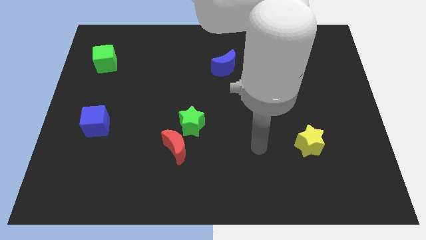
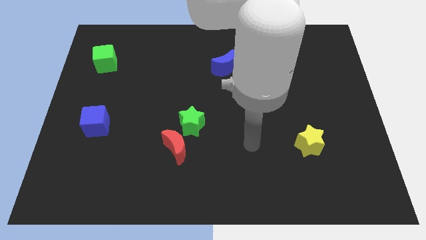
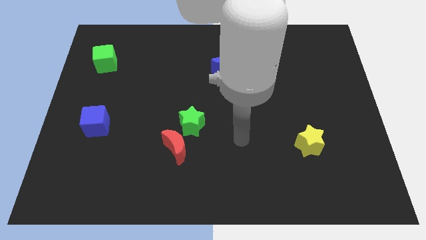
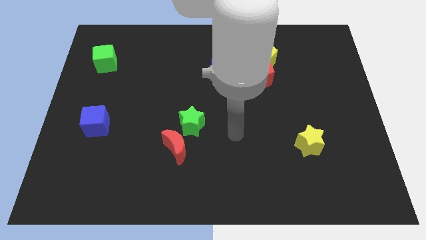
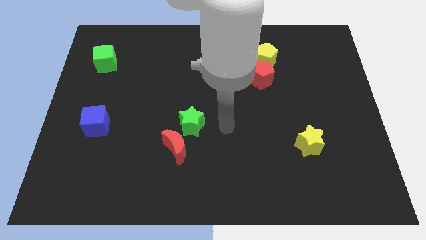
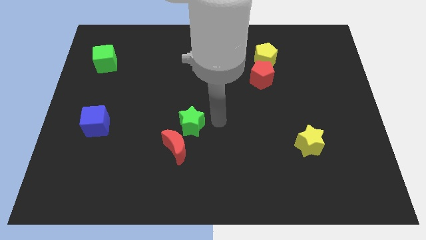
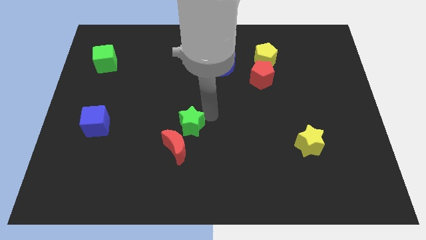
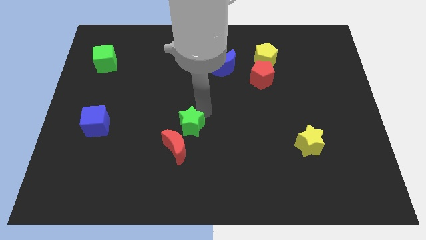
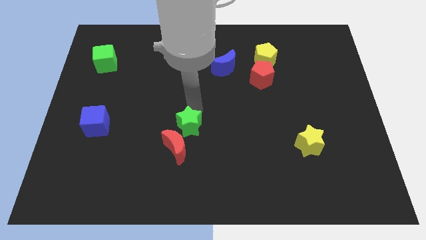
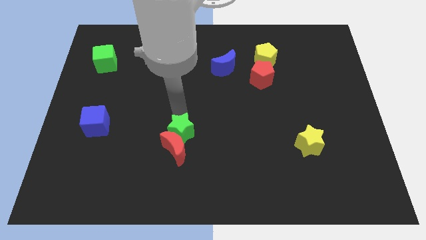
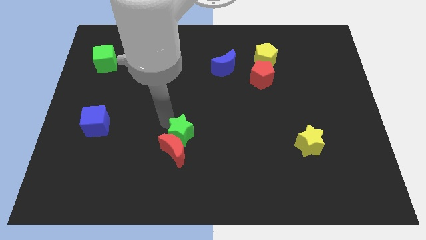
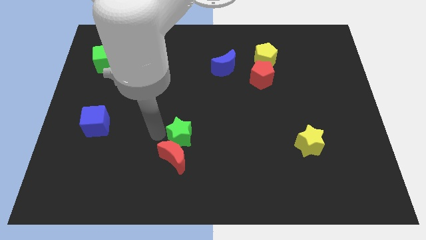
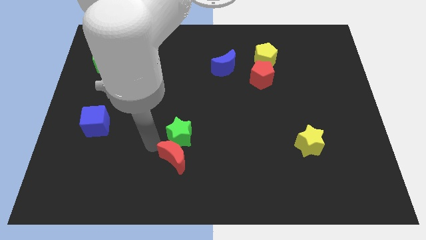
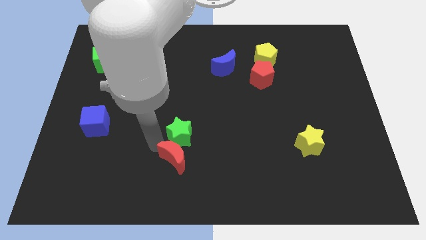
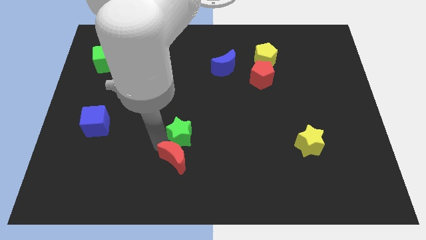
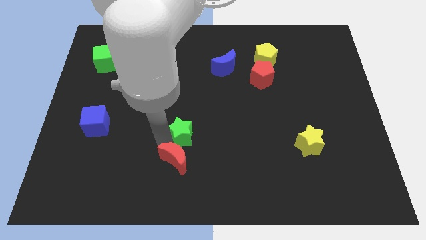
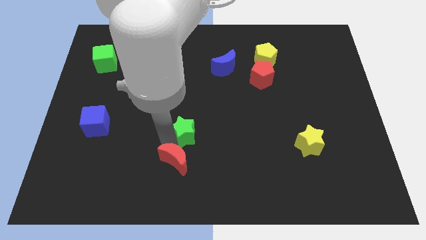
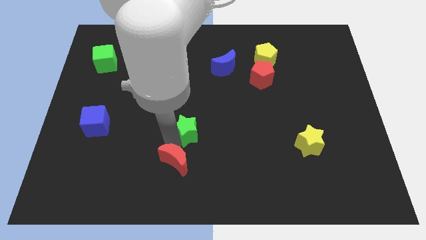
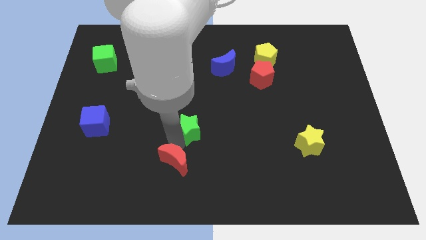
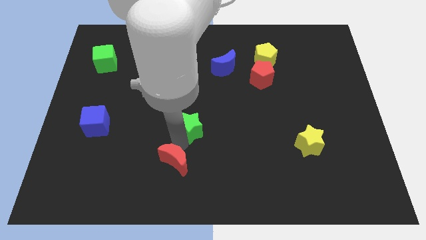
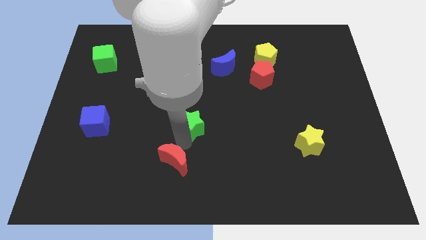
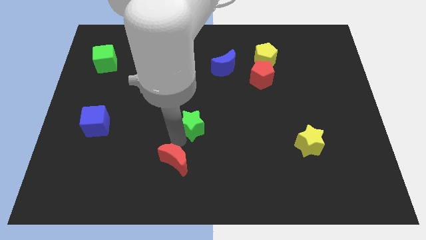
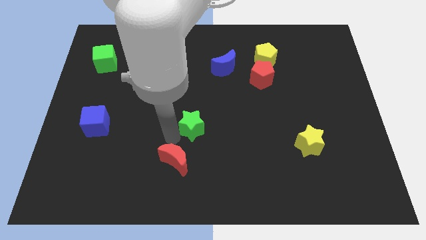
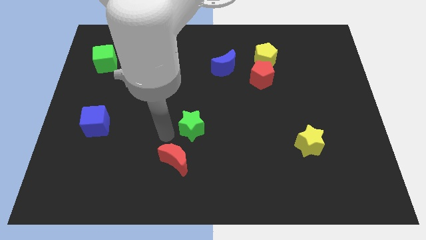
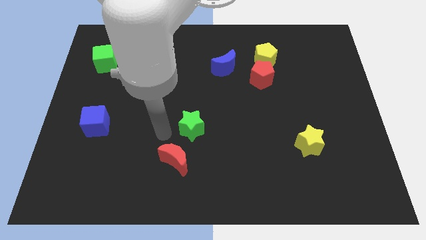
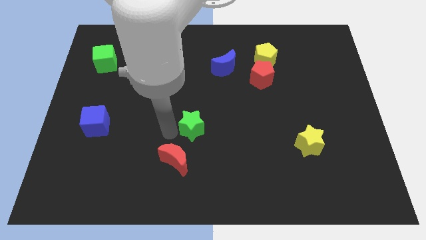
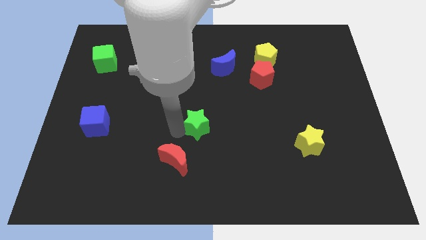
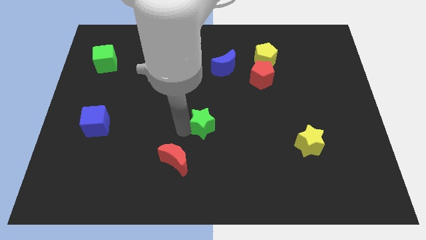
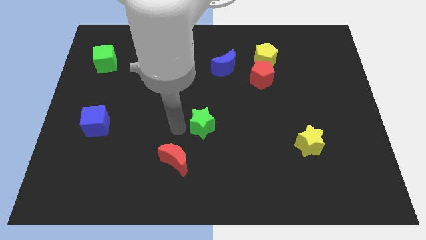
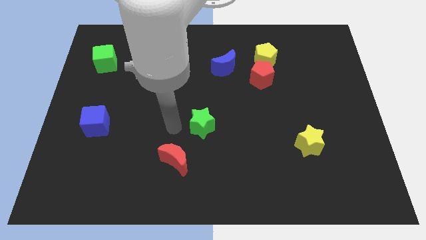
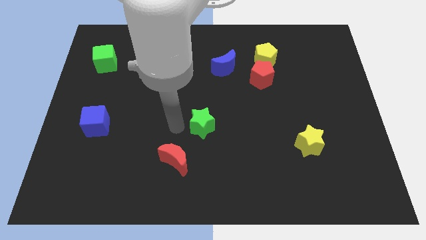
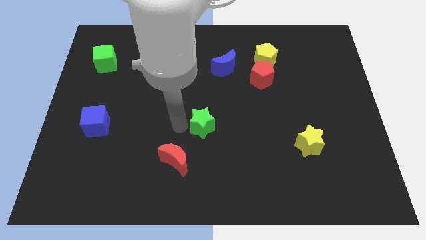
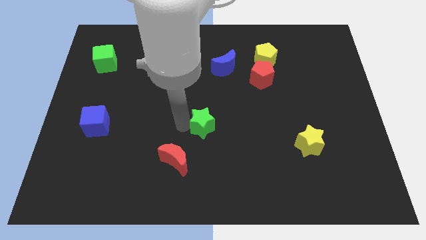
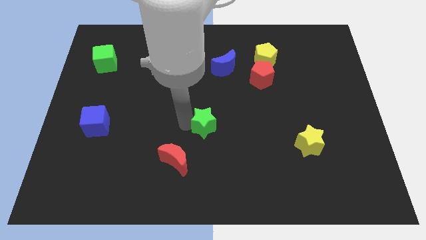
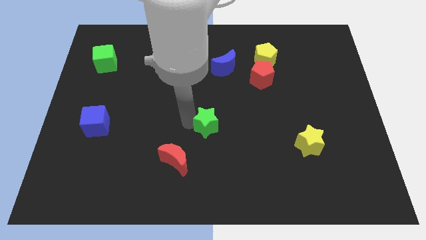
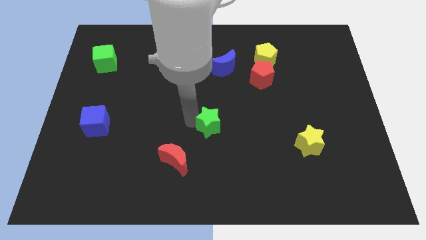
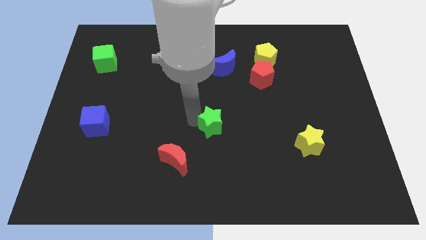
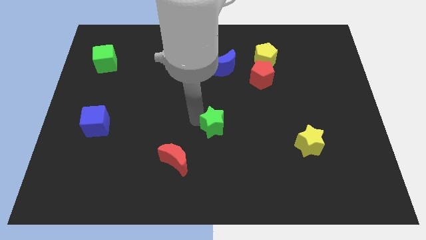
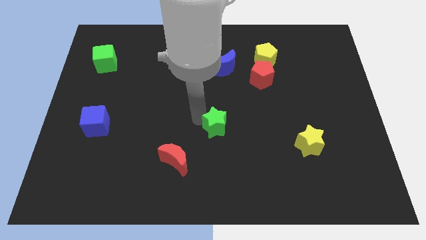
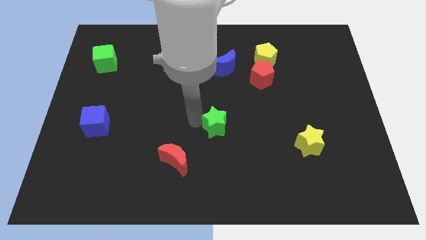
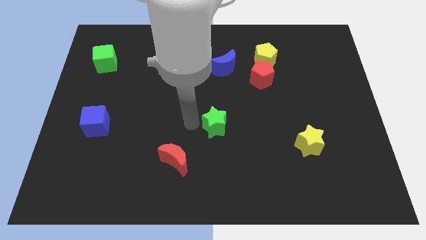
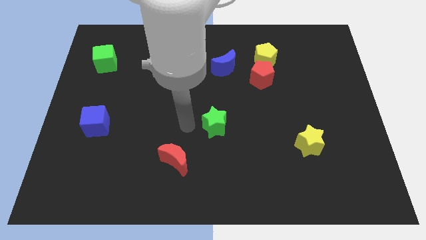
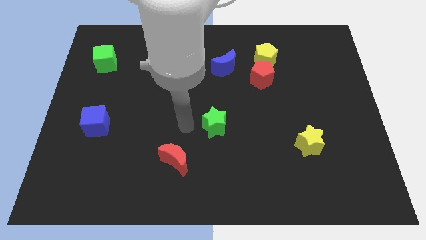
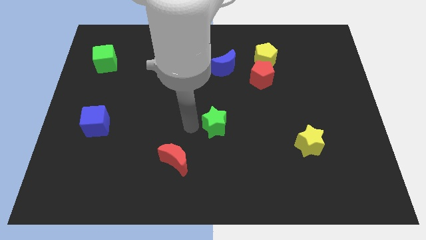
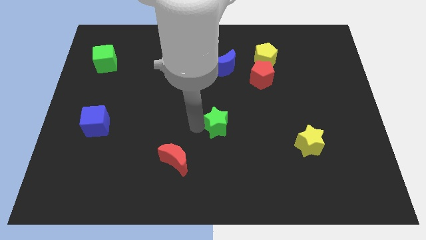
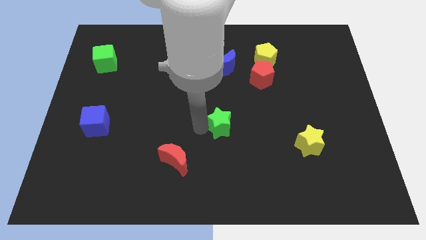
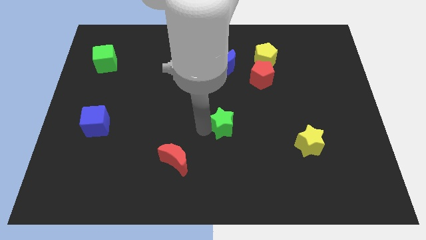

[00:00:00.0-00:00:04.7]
push the green star right a bit

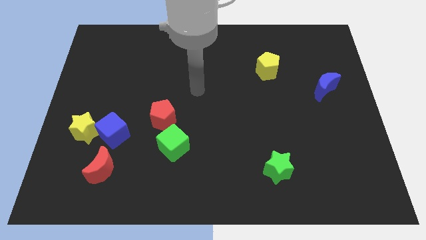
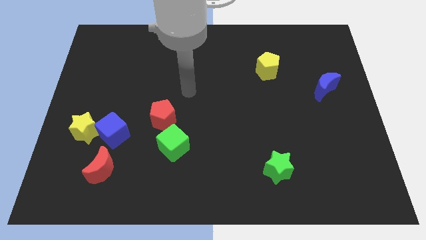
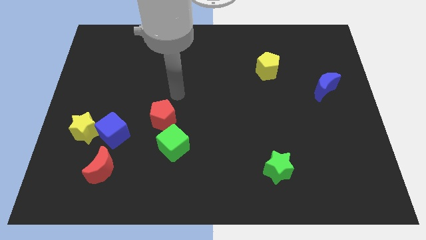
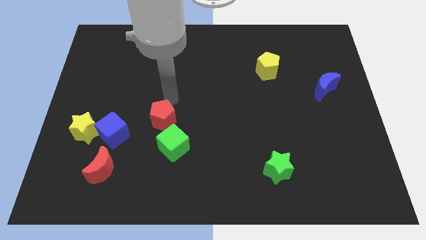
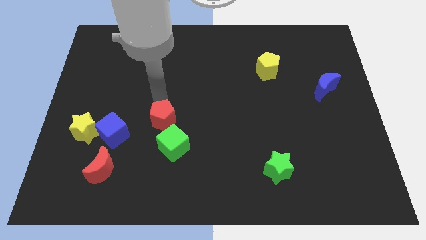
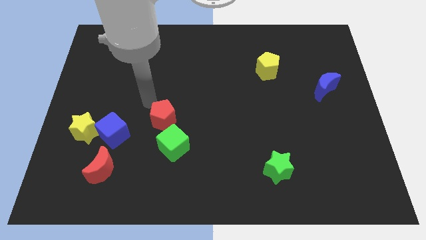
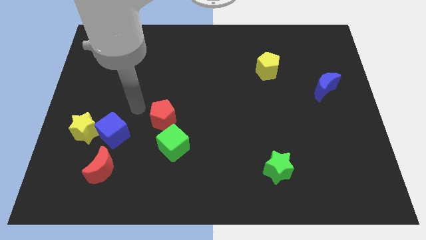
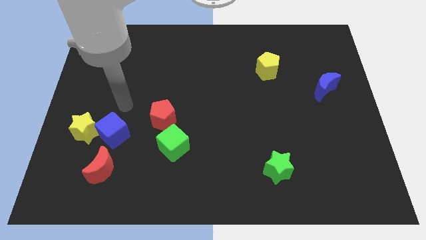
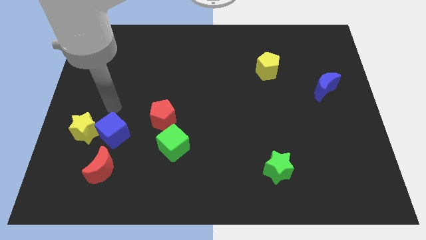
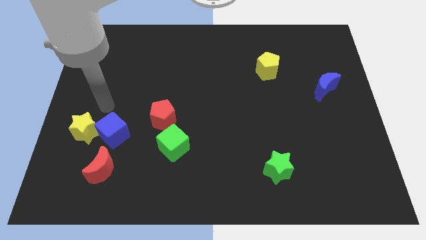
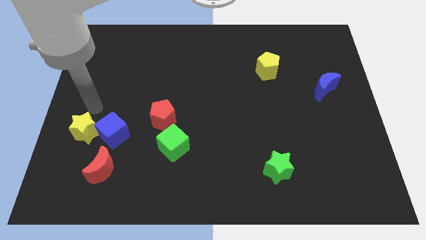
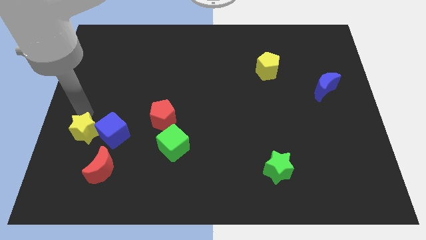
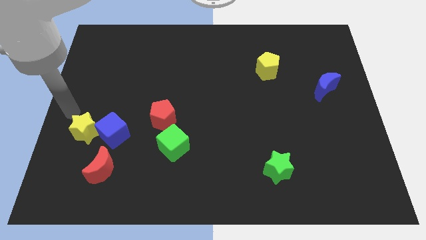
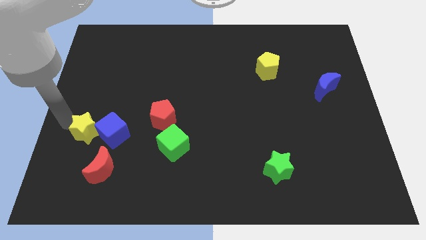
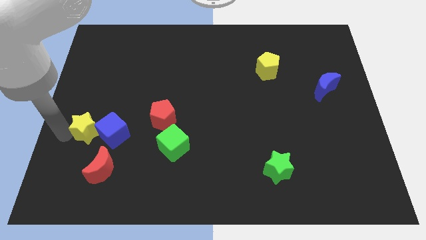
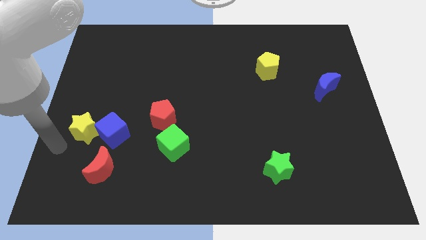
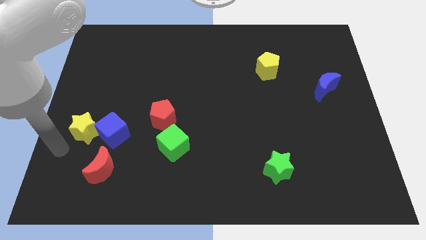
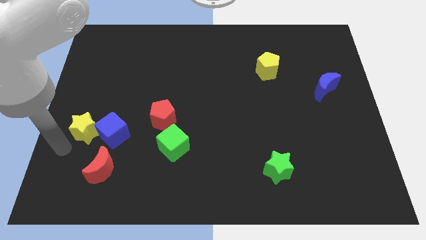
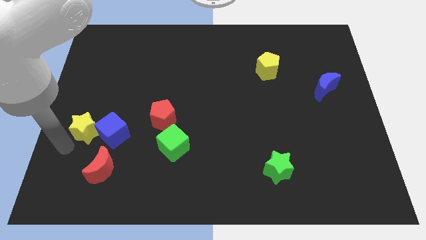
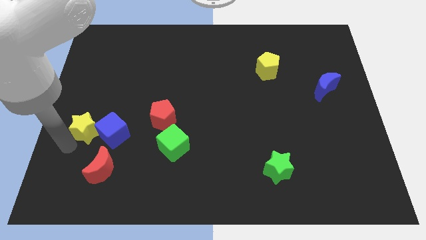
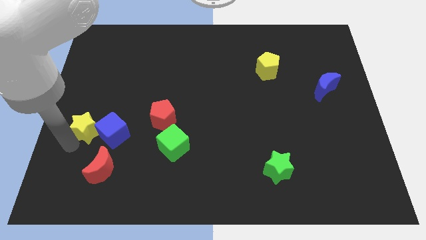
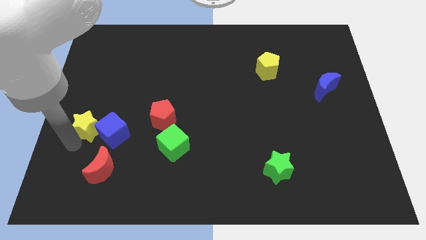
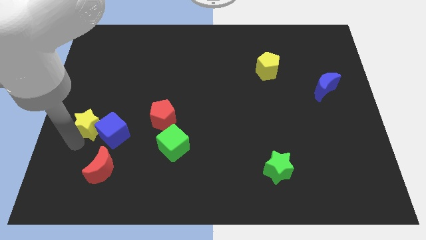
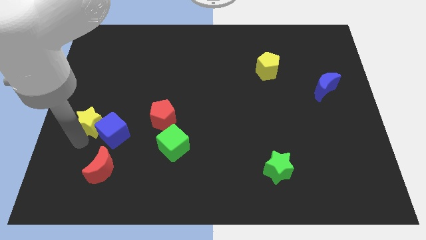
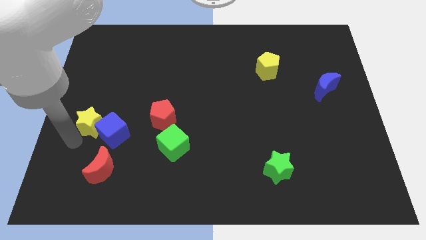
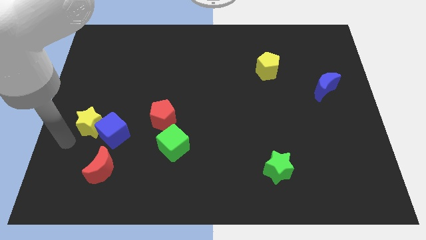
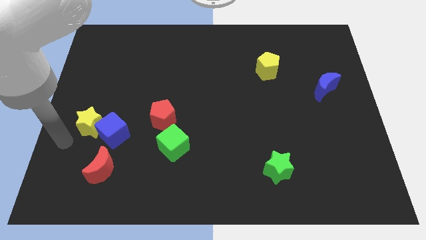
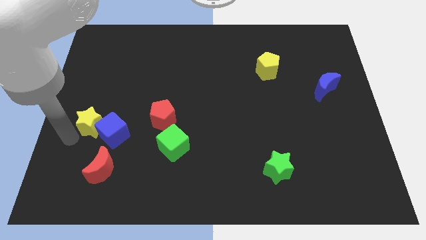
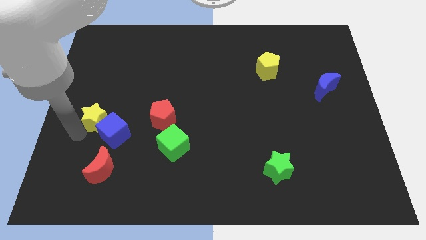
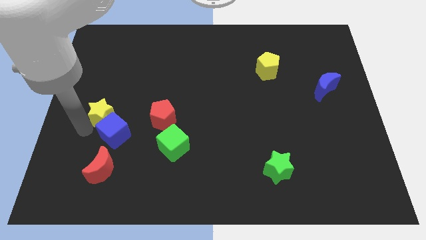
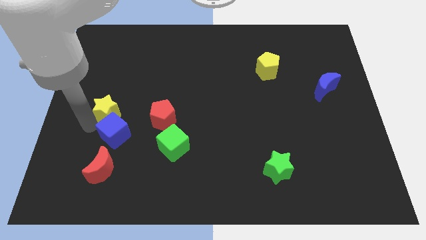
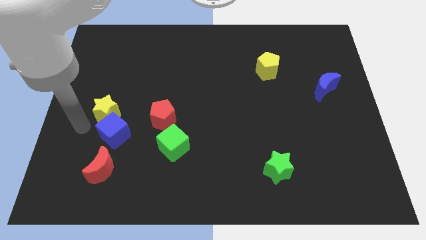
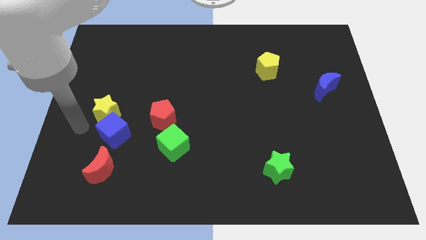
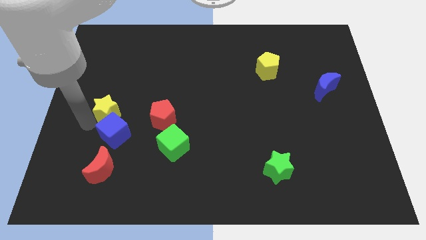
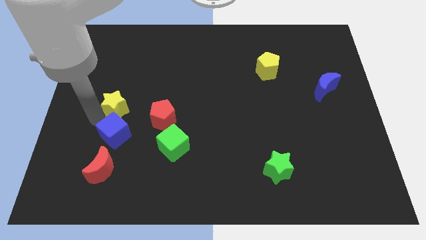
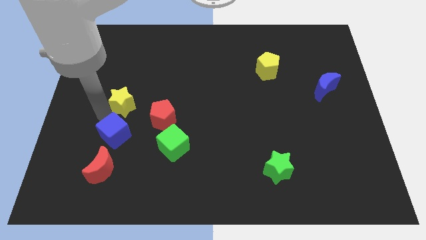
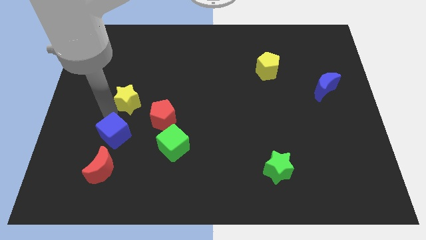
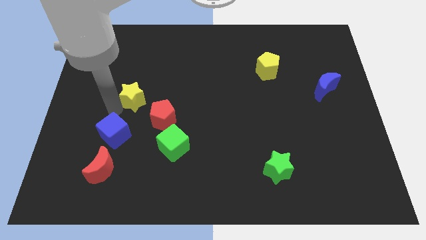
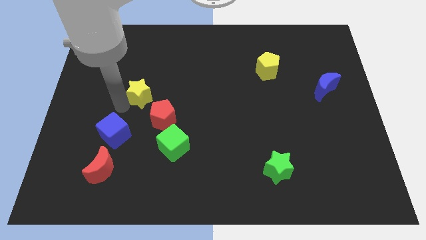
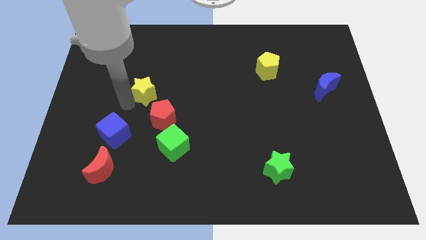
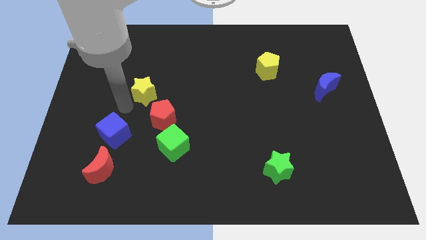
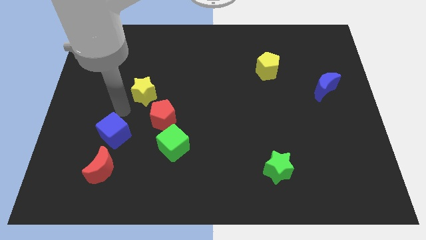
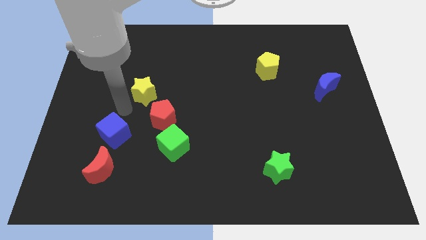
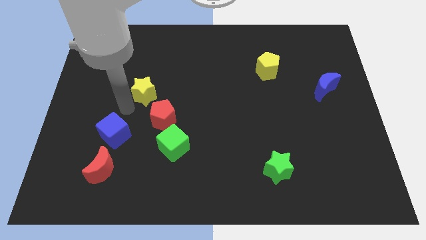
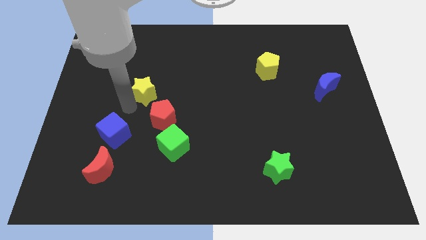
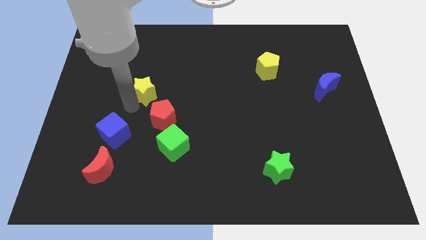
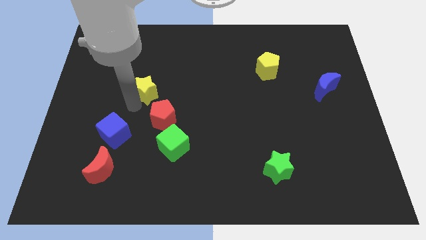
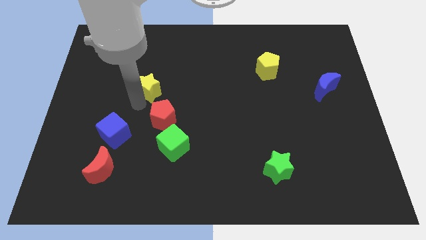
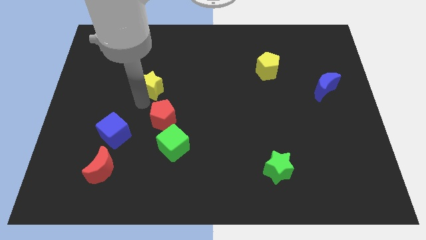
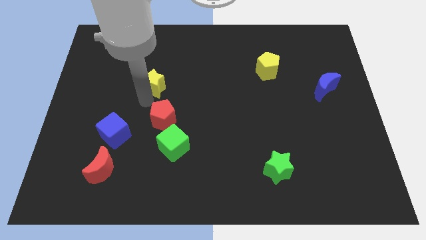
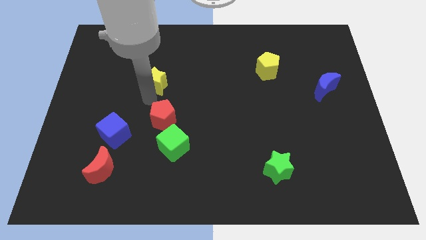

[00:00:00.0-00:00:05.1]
move the yellow star upwards and to the right
